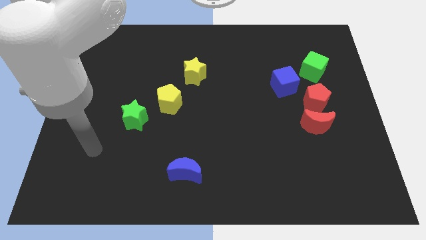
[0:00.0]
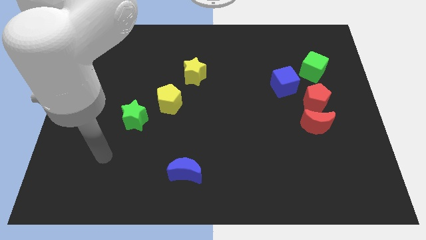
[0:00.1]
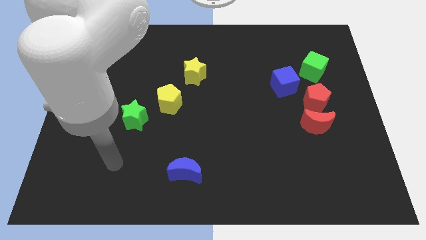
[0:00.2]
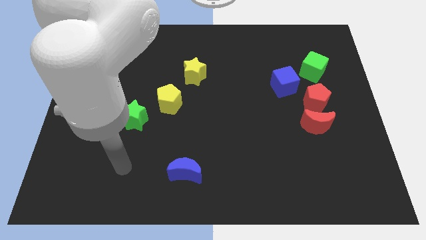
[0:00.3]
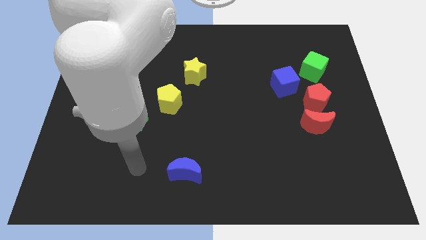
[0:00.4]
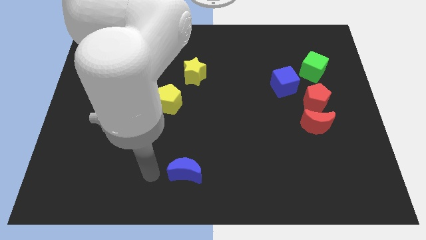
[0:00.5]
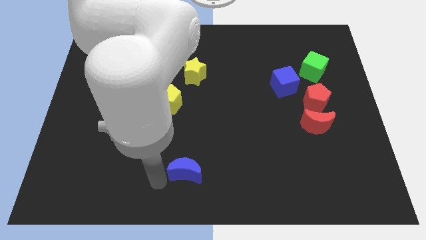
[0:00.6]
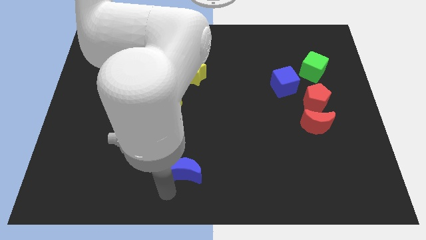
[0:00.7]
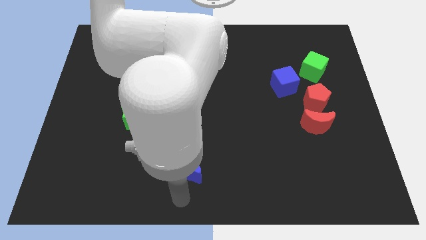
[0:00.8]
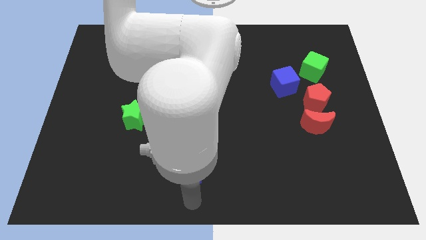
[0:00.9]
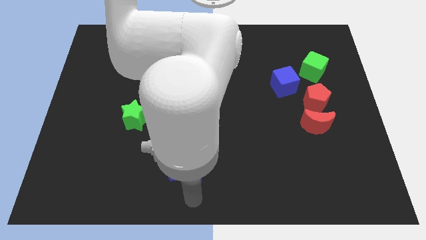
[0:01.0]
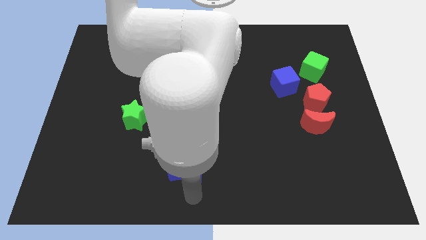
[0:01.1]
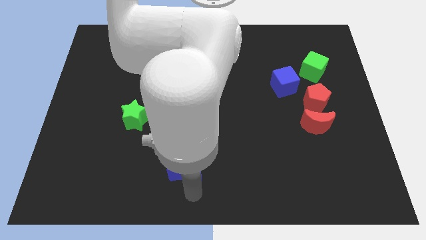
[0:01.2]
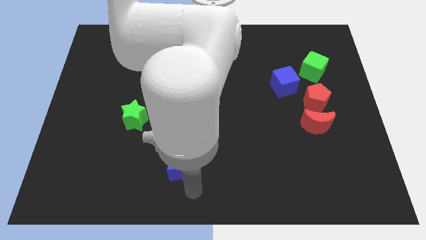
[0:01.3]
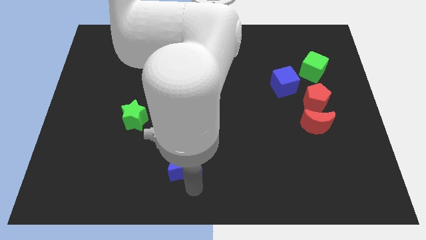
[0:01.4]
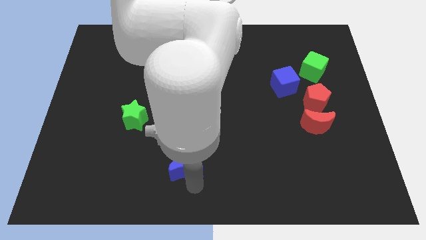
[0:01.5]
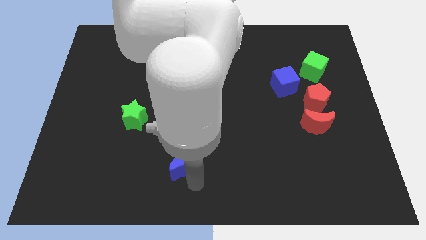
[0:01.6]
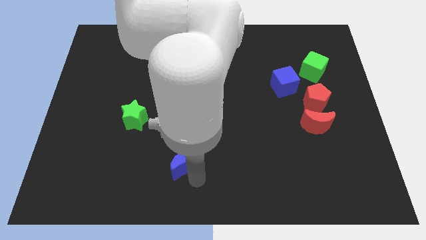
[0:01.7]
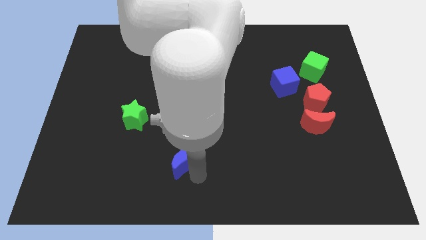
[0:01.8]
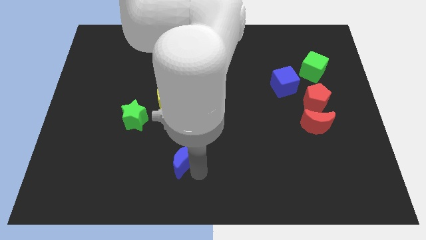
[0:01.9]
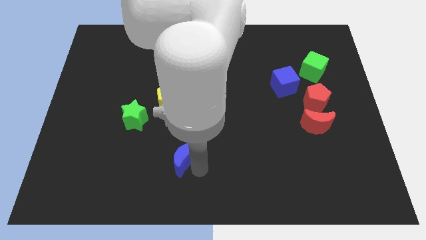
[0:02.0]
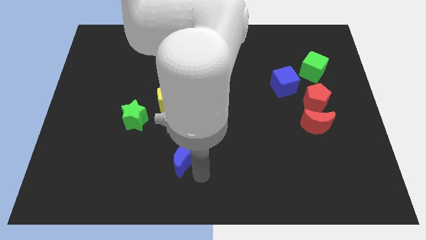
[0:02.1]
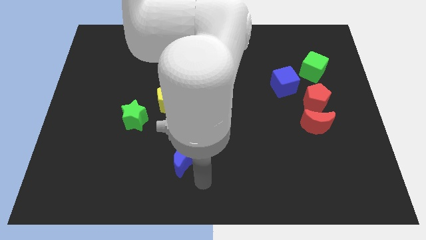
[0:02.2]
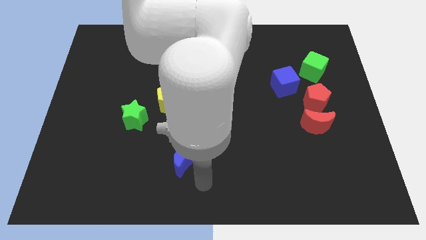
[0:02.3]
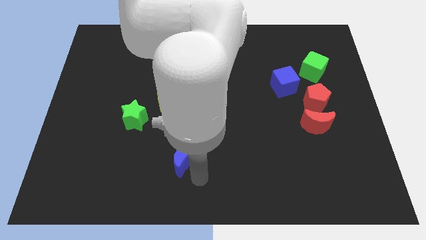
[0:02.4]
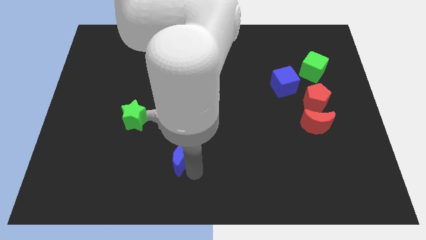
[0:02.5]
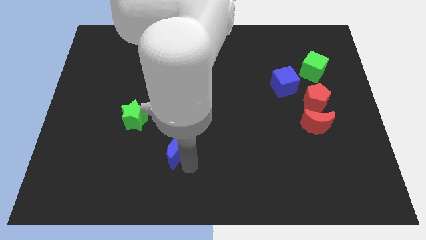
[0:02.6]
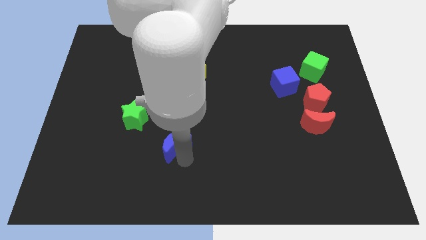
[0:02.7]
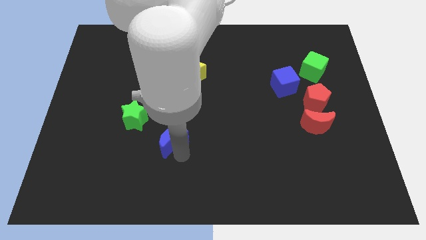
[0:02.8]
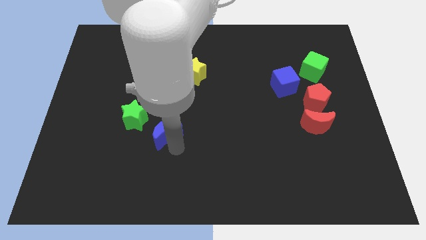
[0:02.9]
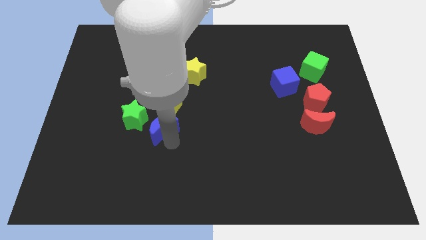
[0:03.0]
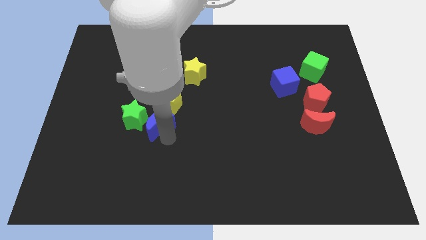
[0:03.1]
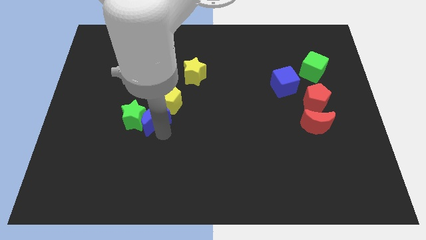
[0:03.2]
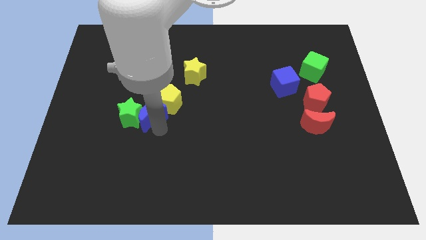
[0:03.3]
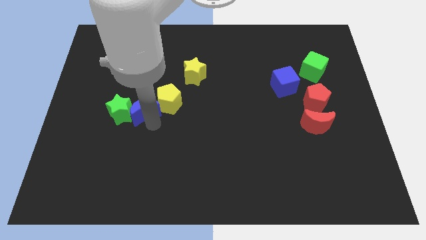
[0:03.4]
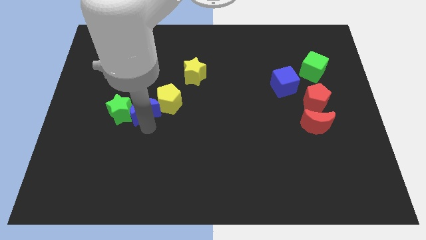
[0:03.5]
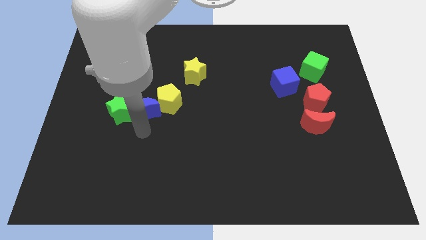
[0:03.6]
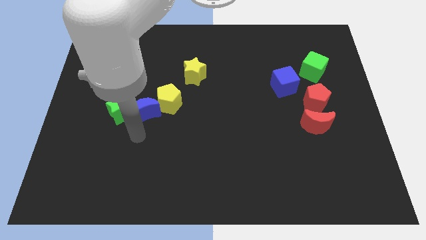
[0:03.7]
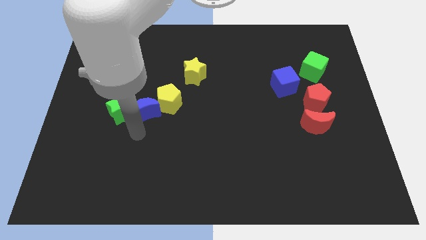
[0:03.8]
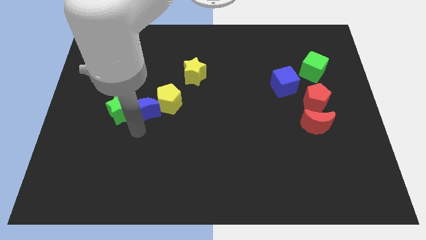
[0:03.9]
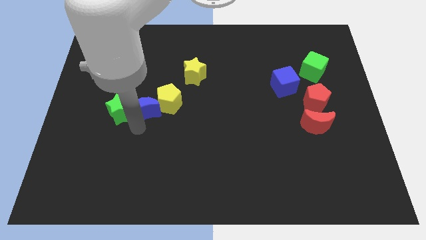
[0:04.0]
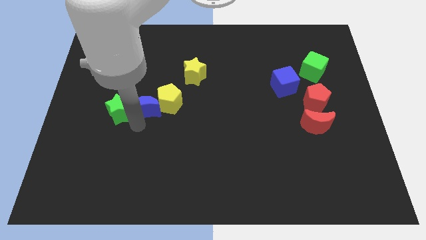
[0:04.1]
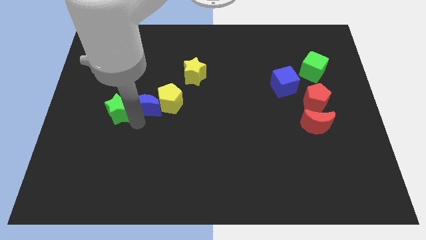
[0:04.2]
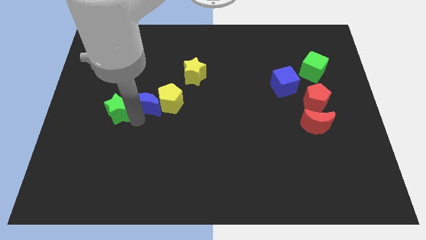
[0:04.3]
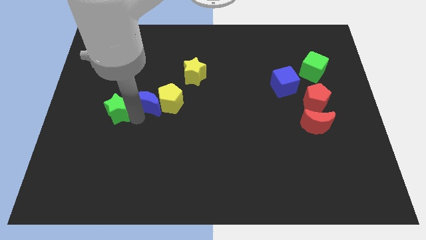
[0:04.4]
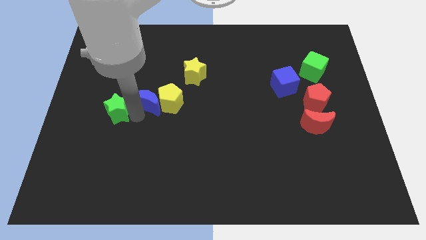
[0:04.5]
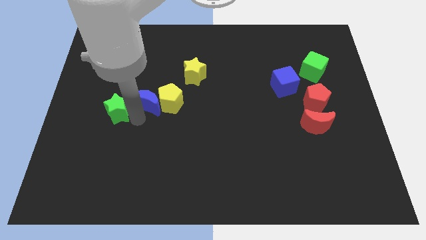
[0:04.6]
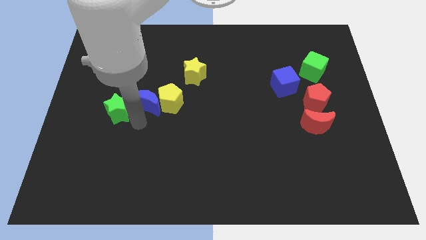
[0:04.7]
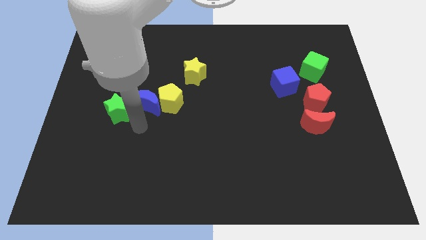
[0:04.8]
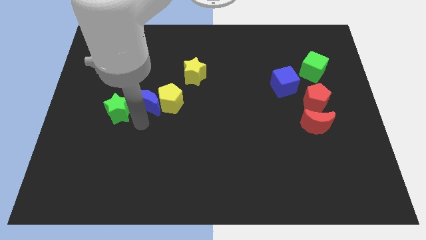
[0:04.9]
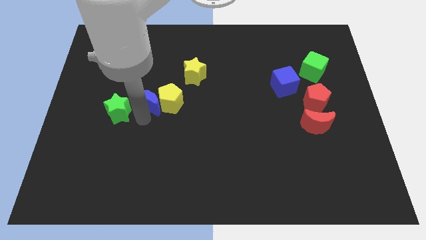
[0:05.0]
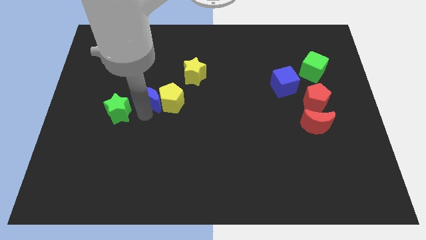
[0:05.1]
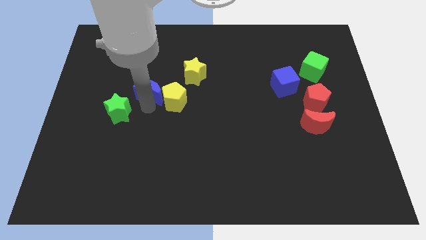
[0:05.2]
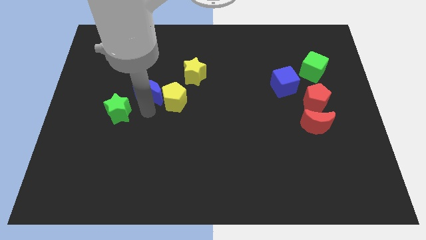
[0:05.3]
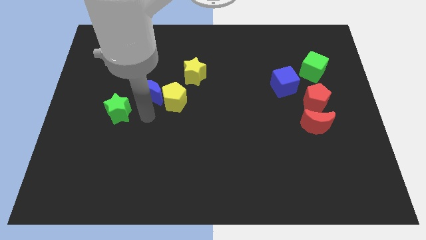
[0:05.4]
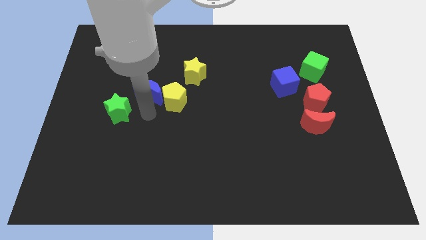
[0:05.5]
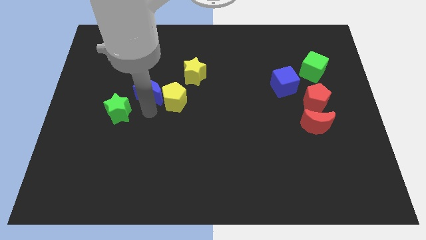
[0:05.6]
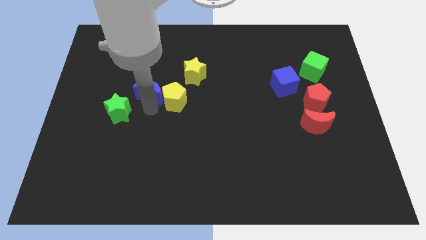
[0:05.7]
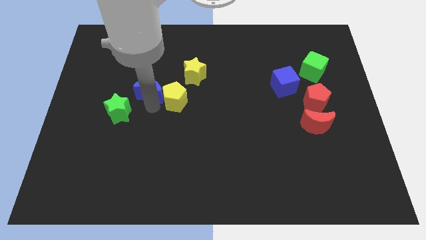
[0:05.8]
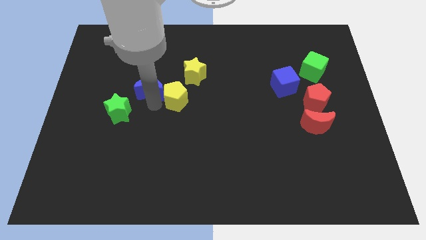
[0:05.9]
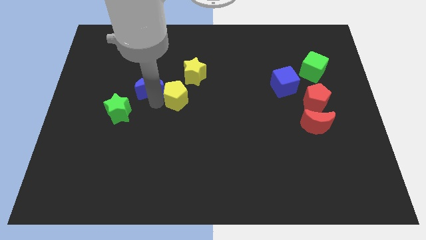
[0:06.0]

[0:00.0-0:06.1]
push the blue moon just left of the yellow star

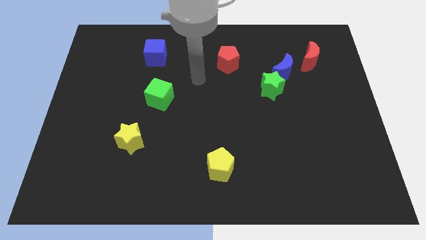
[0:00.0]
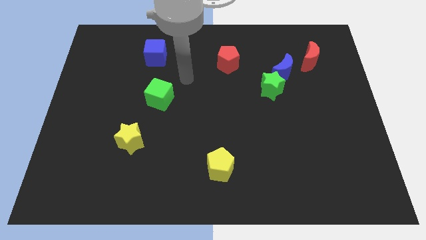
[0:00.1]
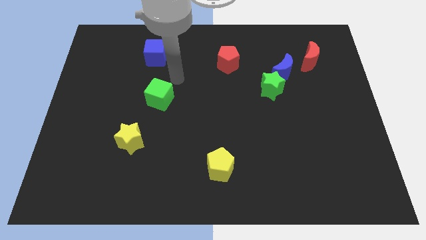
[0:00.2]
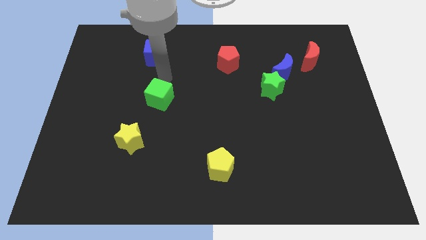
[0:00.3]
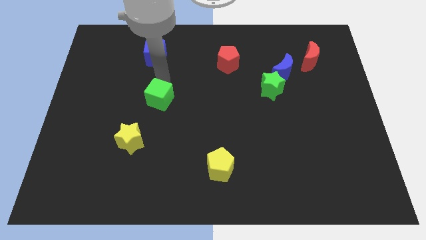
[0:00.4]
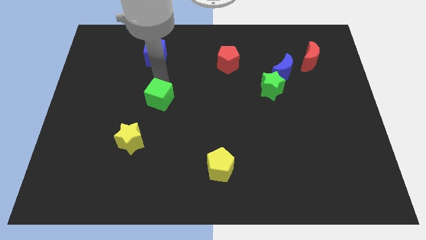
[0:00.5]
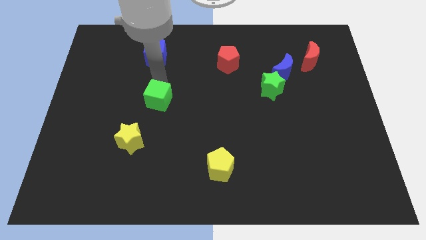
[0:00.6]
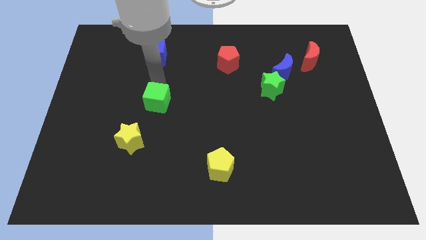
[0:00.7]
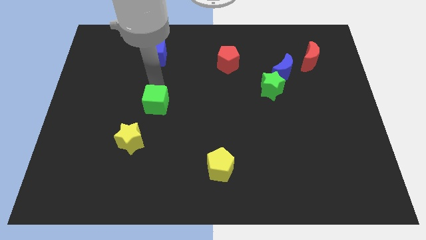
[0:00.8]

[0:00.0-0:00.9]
slide the green cube to the top right side of the yellow star
